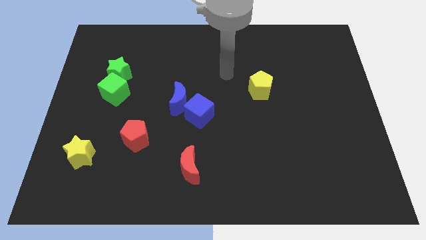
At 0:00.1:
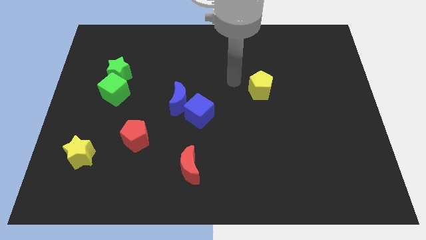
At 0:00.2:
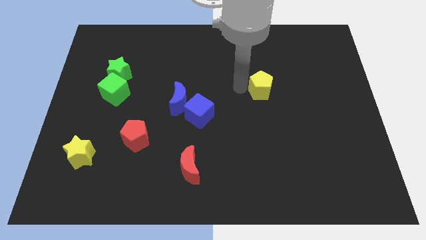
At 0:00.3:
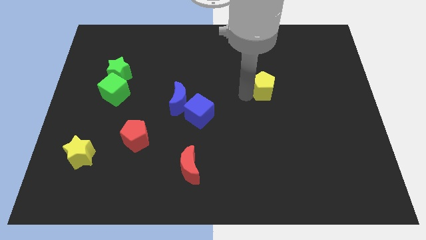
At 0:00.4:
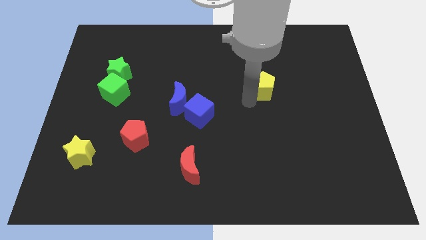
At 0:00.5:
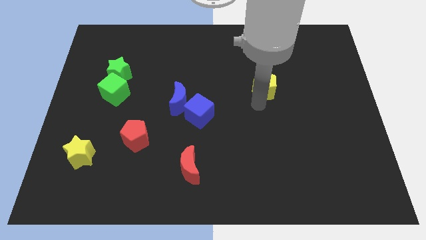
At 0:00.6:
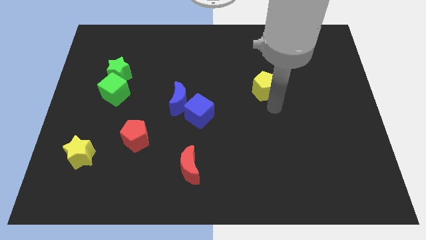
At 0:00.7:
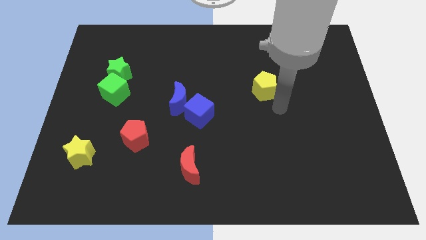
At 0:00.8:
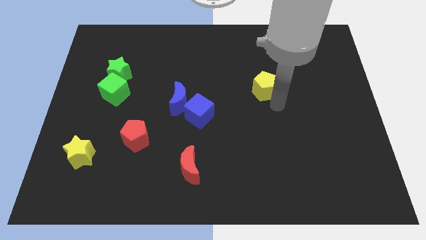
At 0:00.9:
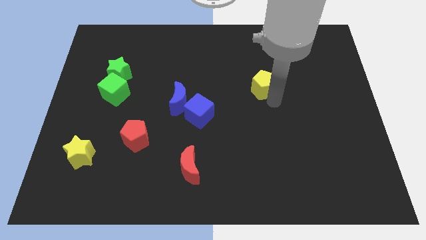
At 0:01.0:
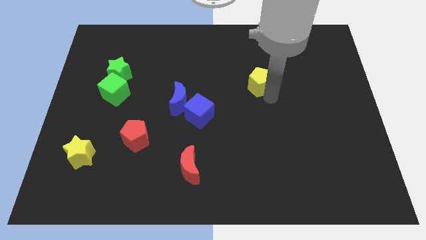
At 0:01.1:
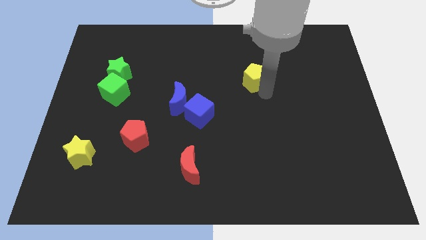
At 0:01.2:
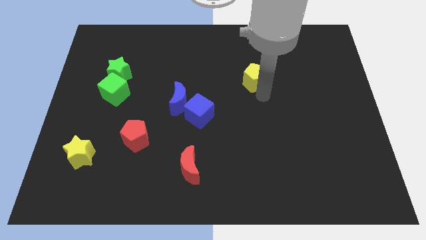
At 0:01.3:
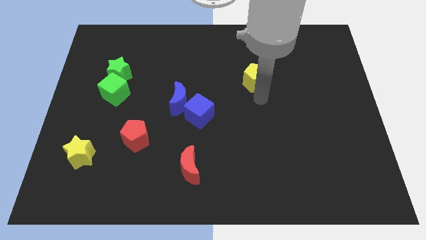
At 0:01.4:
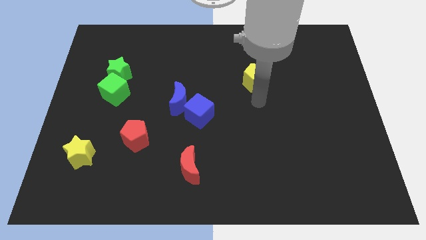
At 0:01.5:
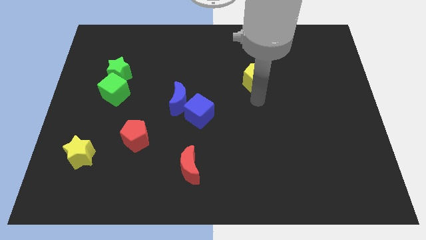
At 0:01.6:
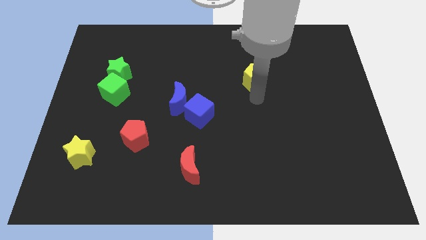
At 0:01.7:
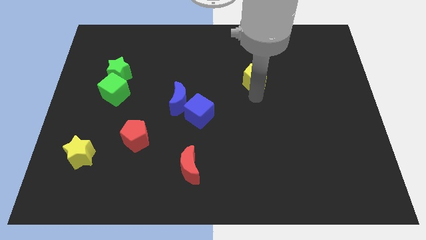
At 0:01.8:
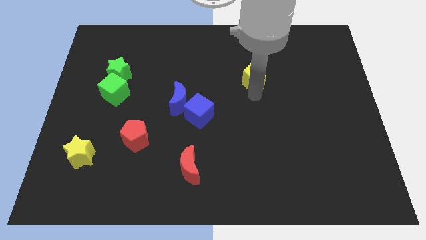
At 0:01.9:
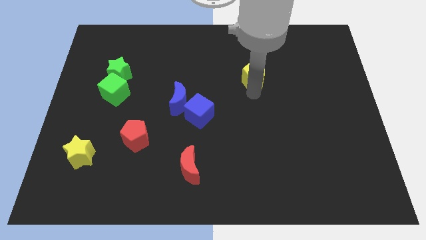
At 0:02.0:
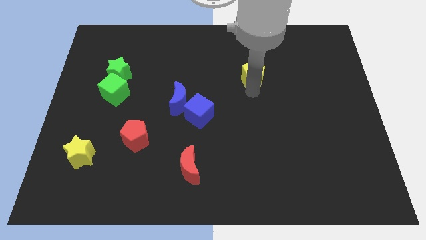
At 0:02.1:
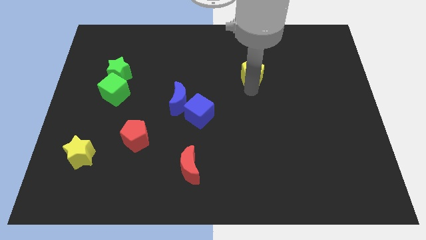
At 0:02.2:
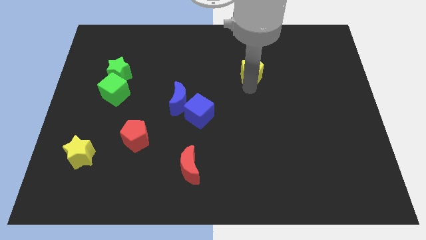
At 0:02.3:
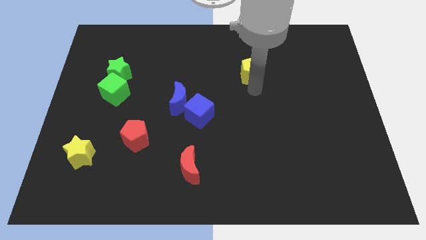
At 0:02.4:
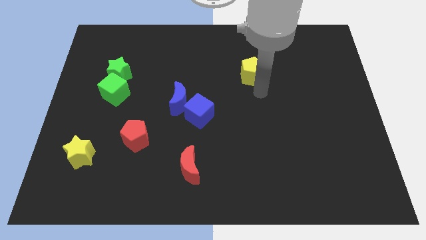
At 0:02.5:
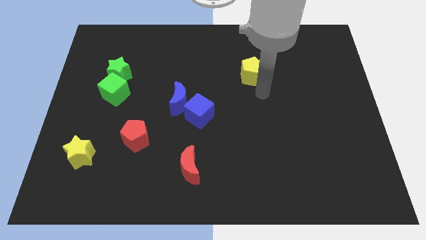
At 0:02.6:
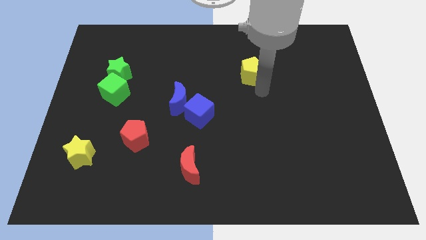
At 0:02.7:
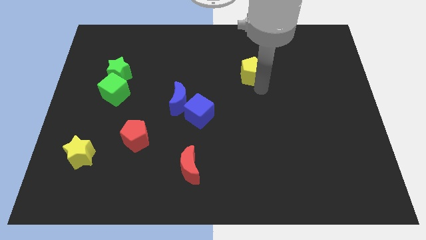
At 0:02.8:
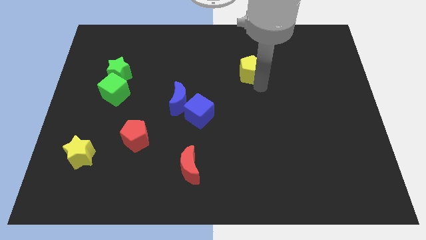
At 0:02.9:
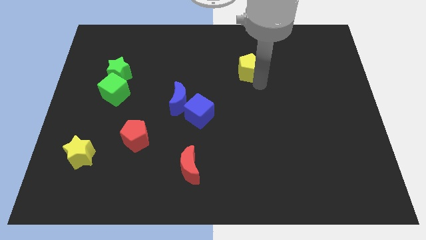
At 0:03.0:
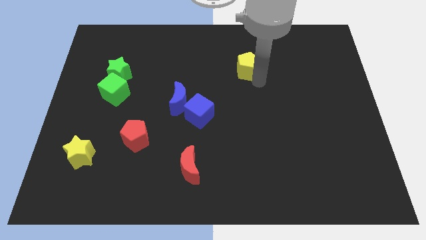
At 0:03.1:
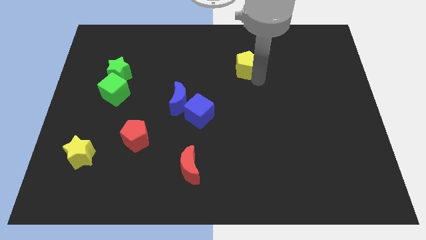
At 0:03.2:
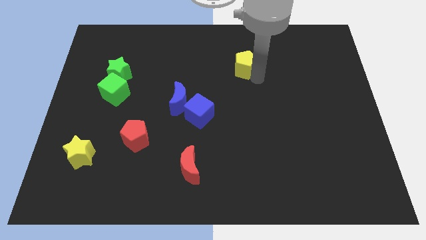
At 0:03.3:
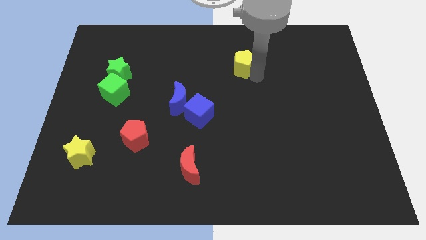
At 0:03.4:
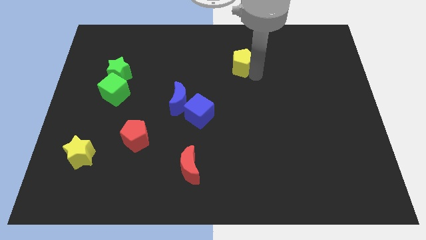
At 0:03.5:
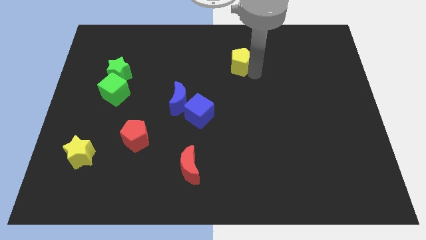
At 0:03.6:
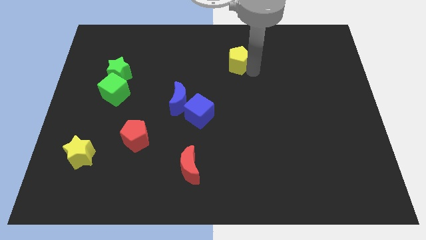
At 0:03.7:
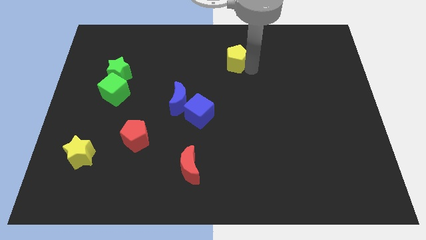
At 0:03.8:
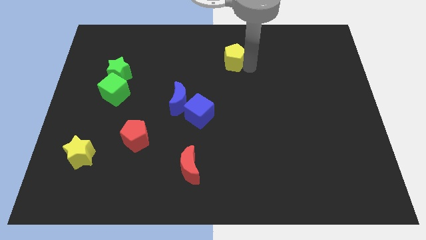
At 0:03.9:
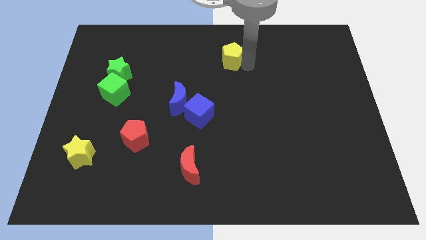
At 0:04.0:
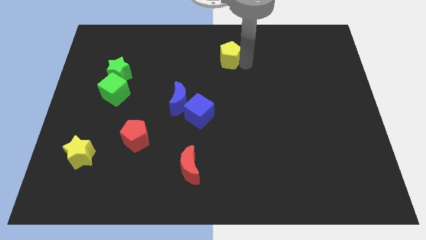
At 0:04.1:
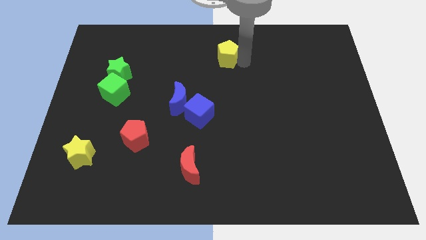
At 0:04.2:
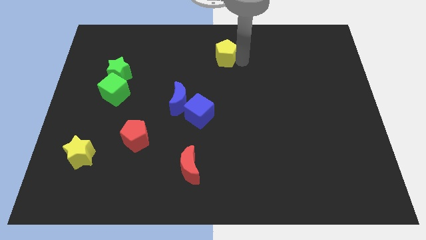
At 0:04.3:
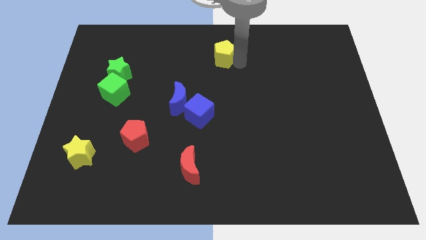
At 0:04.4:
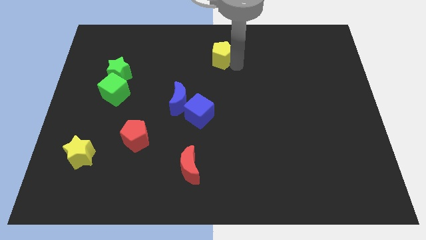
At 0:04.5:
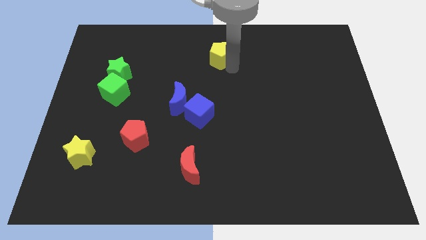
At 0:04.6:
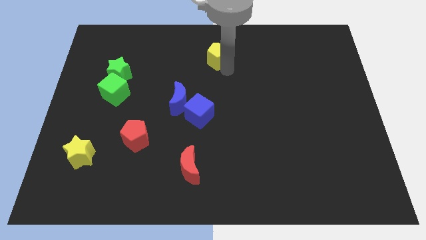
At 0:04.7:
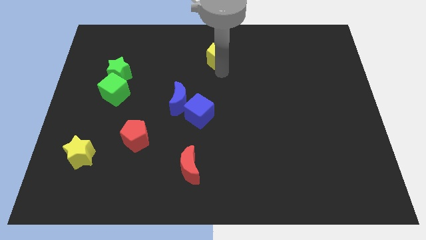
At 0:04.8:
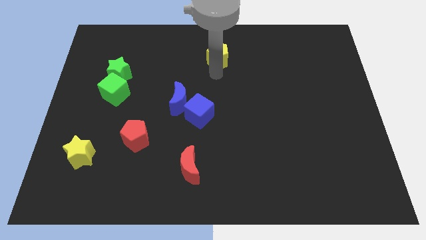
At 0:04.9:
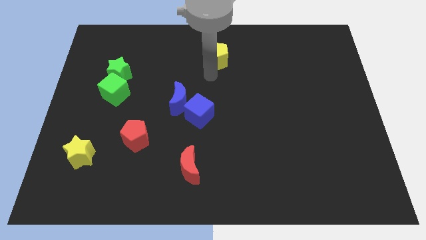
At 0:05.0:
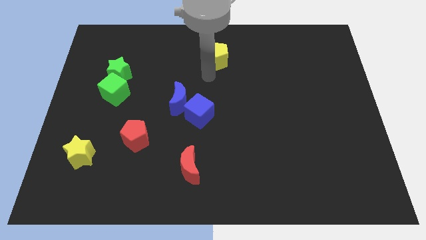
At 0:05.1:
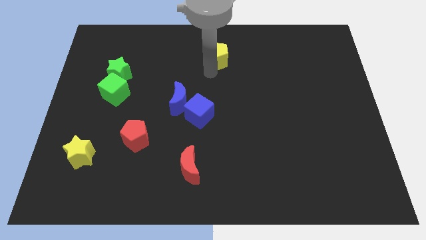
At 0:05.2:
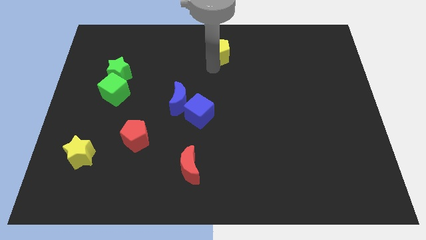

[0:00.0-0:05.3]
push the yellow pentagon to the top side

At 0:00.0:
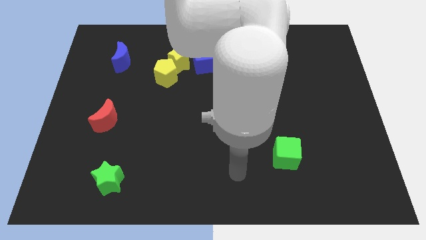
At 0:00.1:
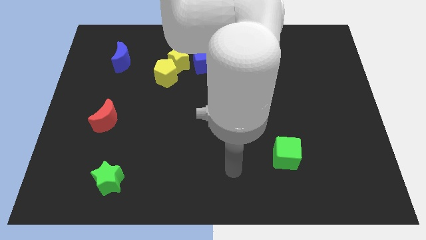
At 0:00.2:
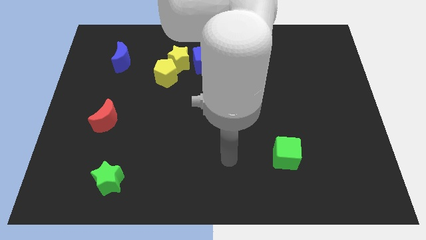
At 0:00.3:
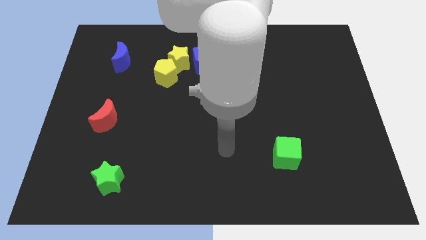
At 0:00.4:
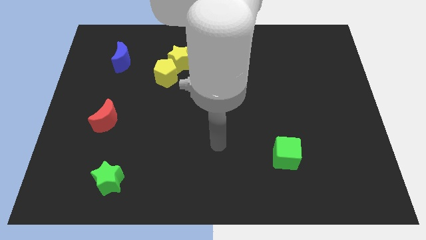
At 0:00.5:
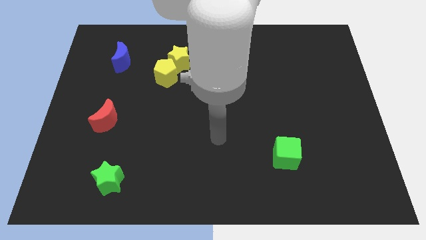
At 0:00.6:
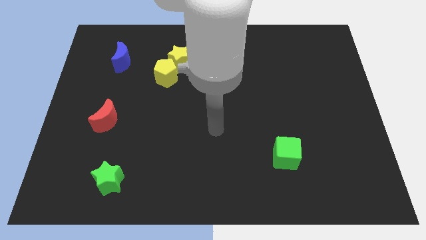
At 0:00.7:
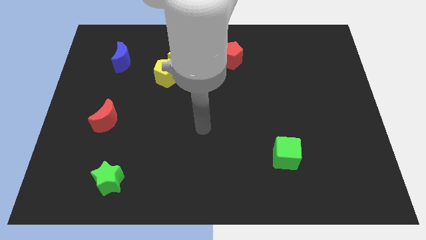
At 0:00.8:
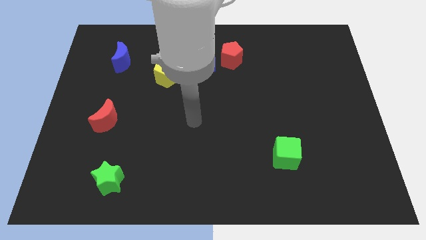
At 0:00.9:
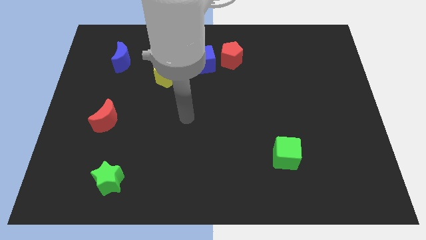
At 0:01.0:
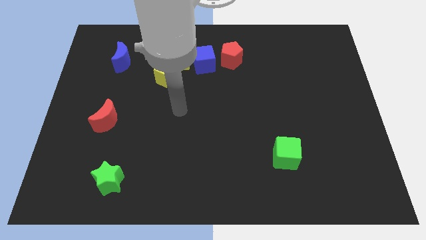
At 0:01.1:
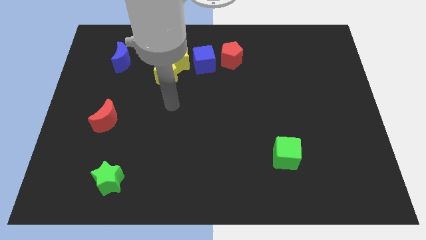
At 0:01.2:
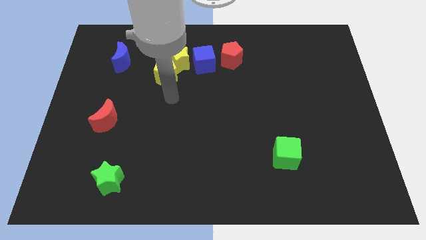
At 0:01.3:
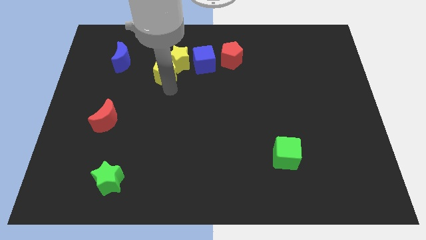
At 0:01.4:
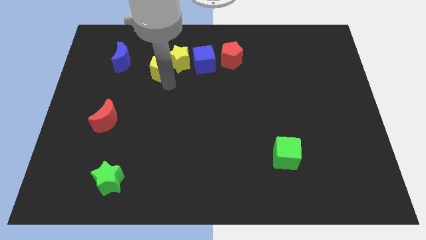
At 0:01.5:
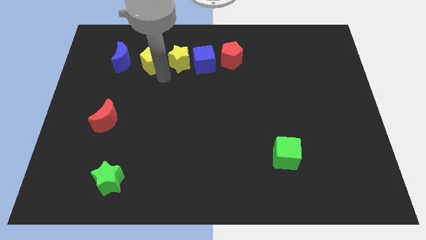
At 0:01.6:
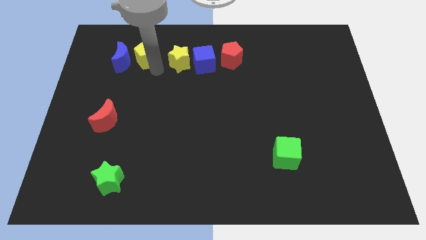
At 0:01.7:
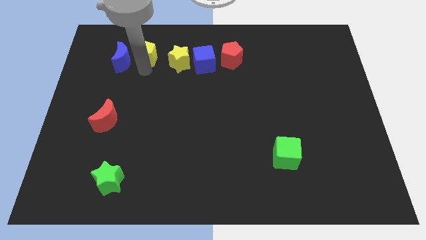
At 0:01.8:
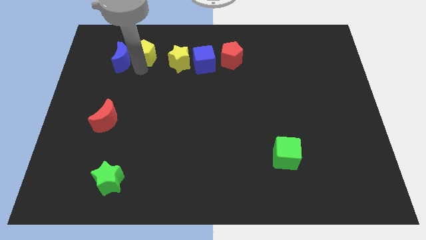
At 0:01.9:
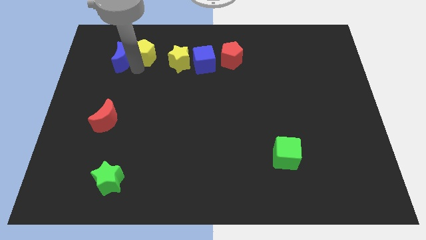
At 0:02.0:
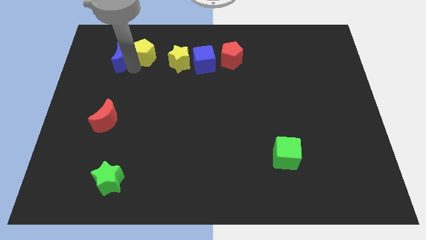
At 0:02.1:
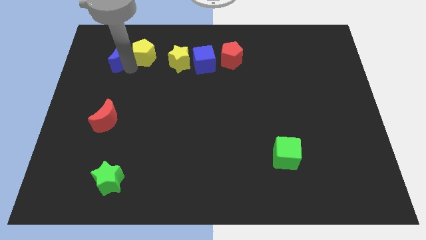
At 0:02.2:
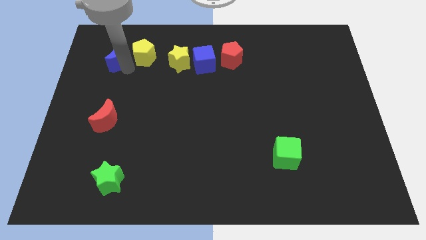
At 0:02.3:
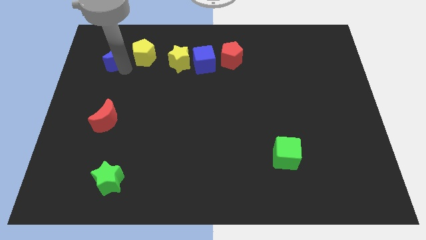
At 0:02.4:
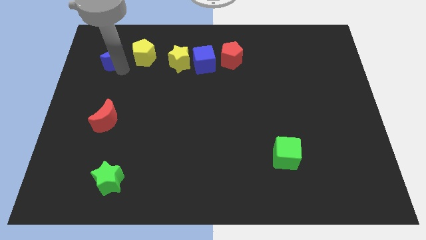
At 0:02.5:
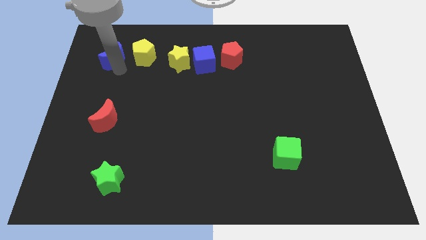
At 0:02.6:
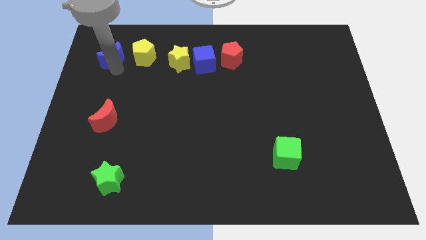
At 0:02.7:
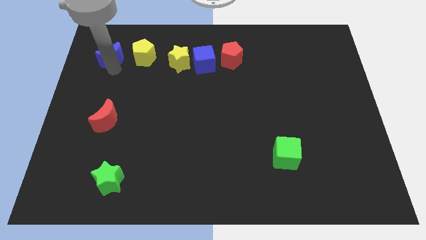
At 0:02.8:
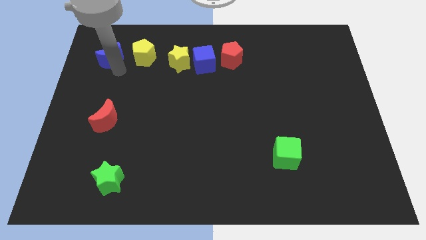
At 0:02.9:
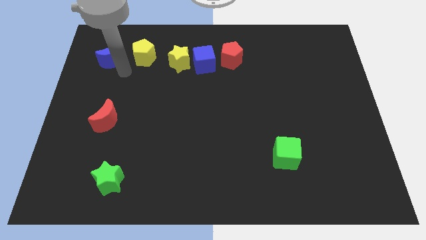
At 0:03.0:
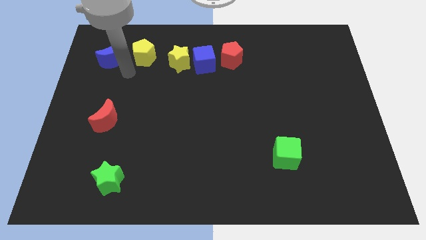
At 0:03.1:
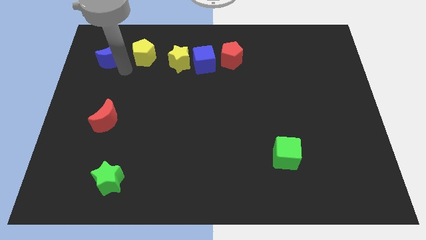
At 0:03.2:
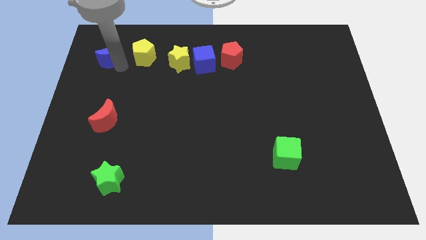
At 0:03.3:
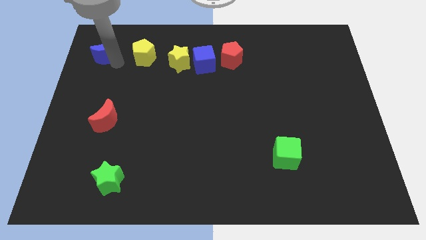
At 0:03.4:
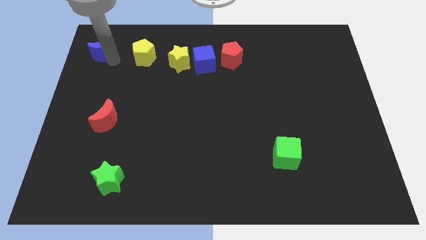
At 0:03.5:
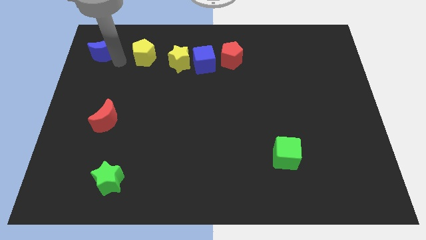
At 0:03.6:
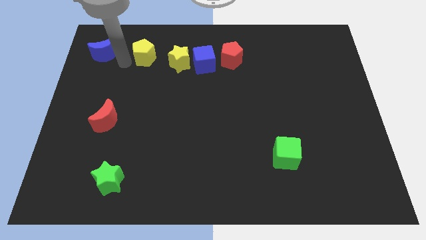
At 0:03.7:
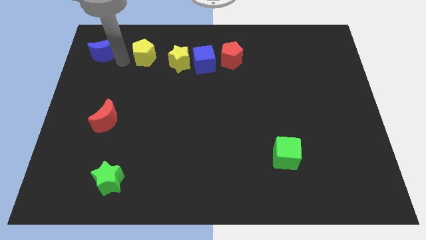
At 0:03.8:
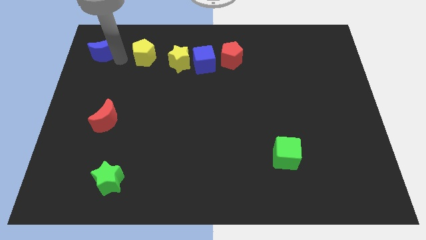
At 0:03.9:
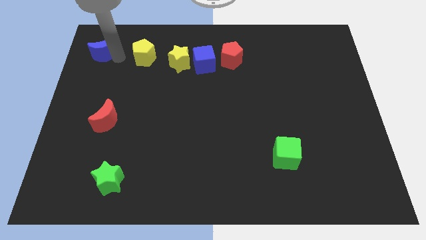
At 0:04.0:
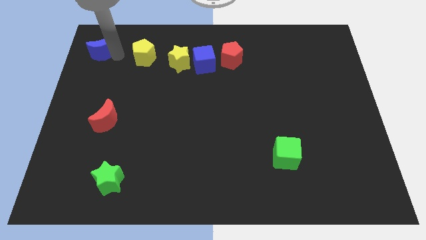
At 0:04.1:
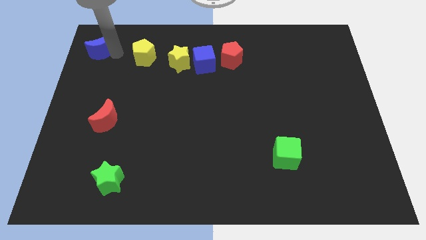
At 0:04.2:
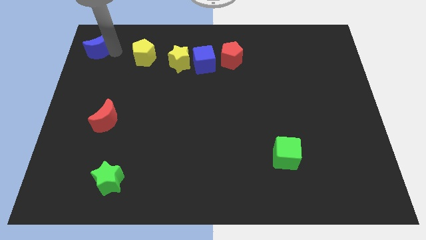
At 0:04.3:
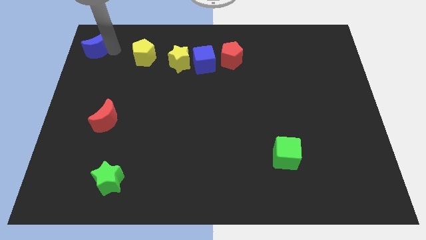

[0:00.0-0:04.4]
put the blue moon to the top left of the board
